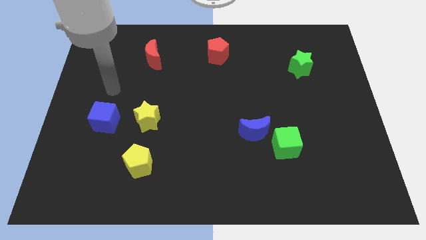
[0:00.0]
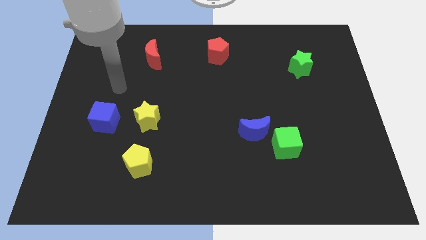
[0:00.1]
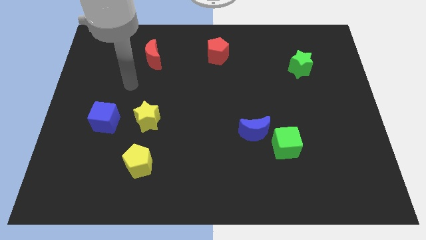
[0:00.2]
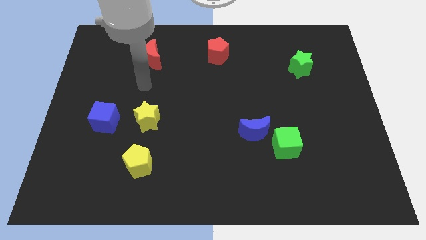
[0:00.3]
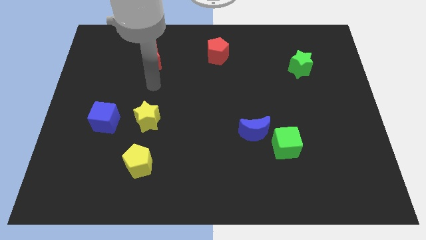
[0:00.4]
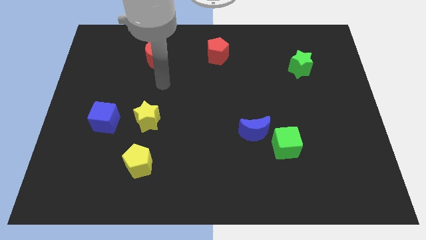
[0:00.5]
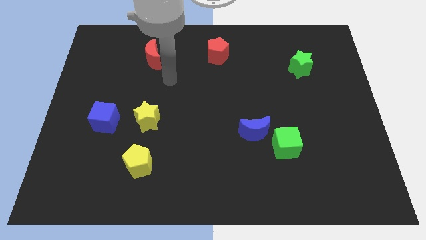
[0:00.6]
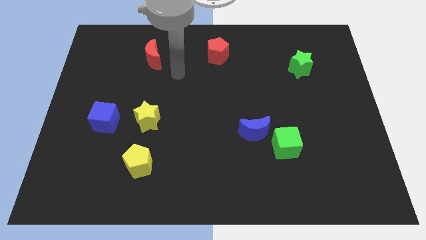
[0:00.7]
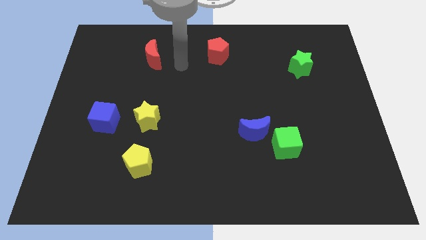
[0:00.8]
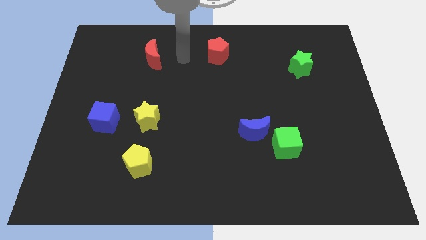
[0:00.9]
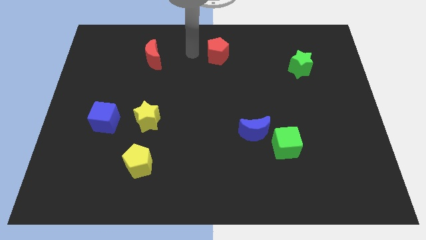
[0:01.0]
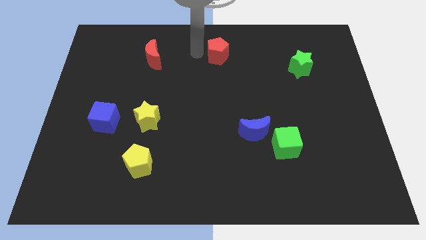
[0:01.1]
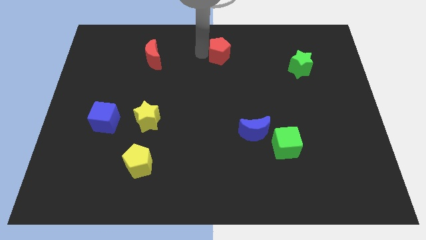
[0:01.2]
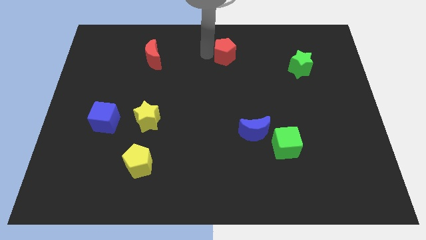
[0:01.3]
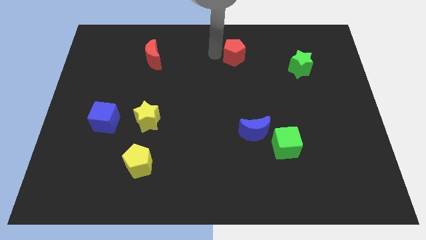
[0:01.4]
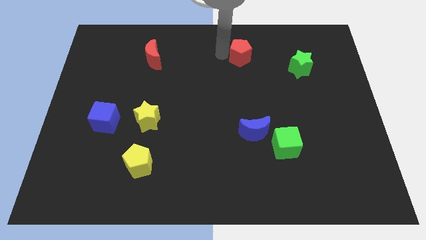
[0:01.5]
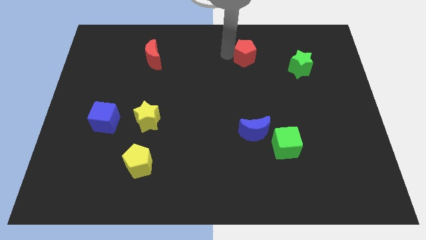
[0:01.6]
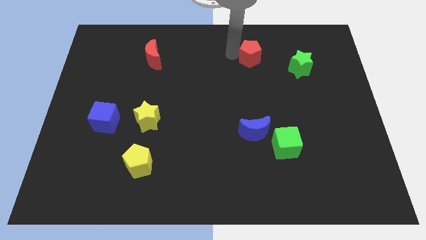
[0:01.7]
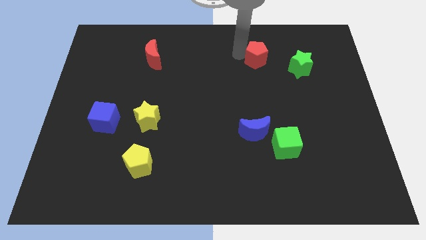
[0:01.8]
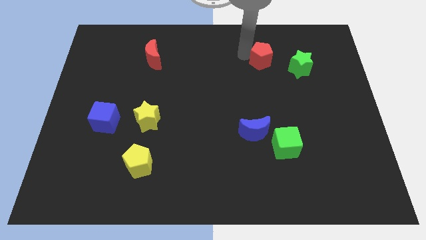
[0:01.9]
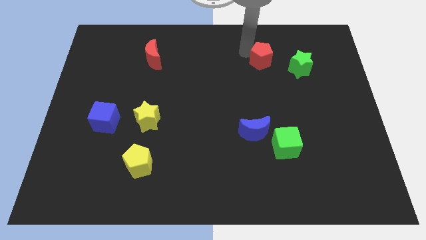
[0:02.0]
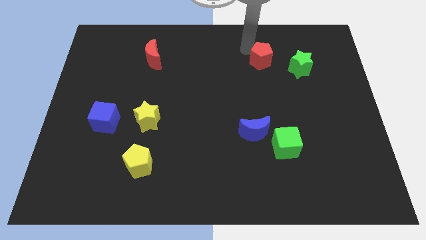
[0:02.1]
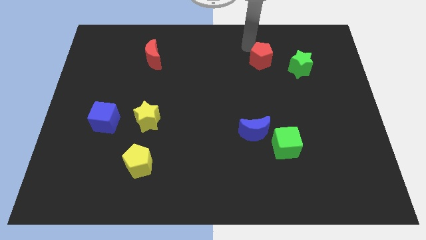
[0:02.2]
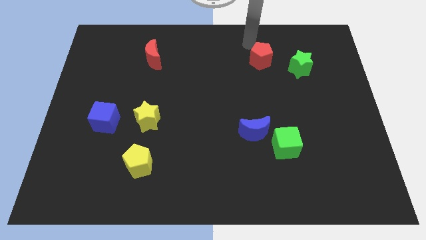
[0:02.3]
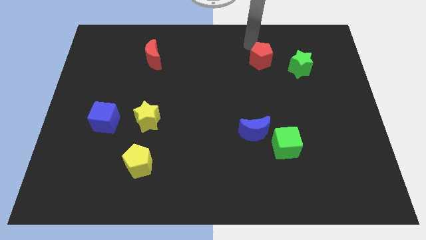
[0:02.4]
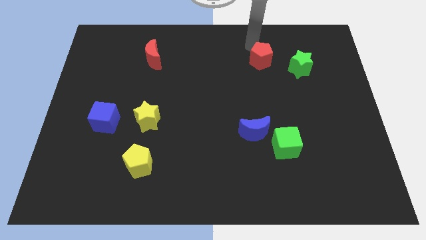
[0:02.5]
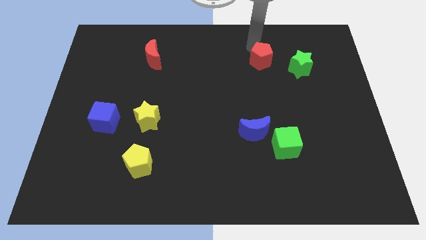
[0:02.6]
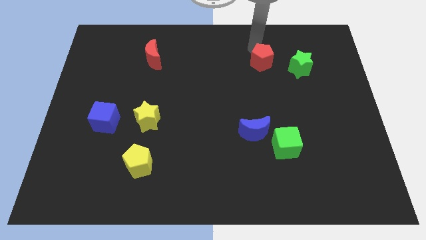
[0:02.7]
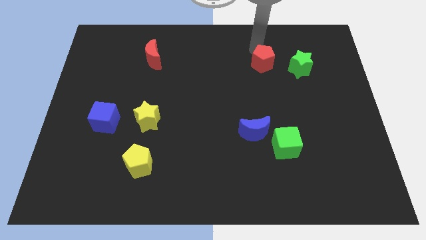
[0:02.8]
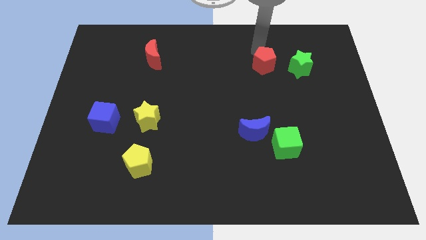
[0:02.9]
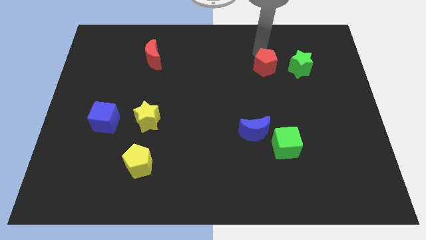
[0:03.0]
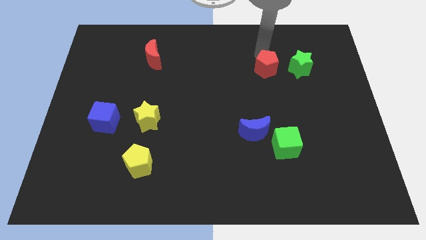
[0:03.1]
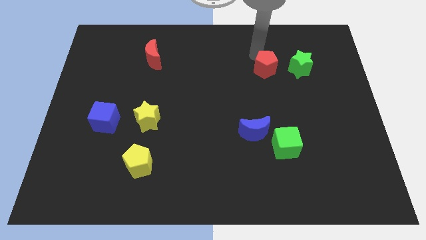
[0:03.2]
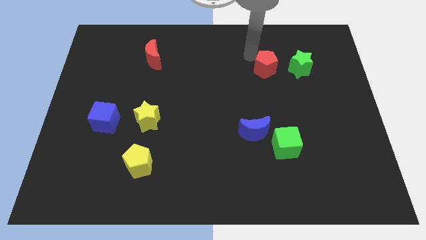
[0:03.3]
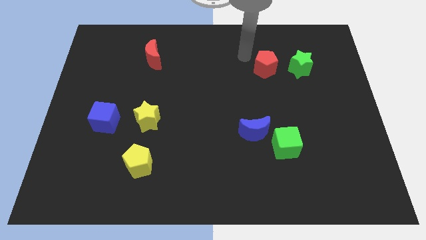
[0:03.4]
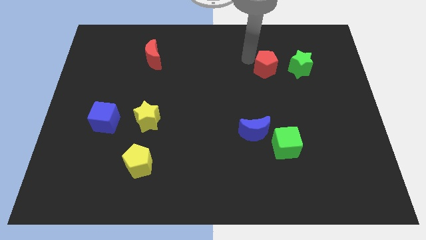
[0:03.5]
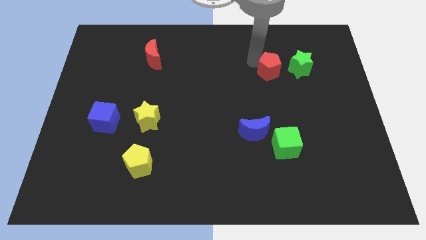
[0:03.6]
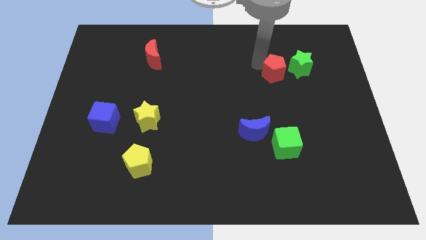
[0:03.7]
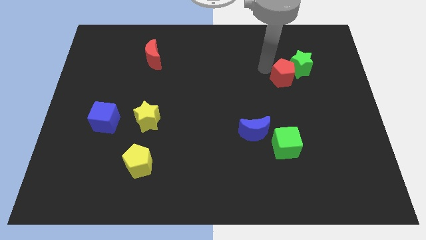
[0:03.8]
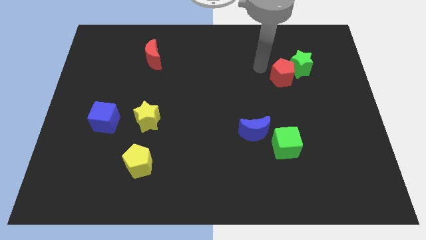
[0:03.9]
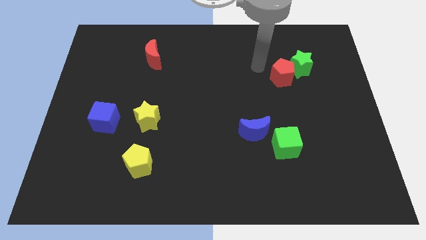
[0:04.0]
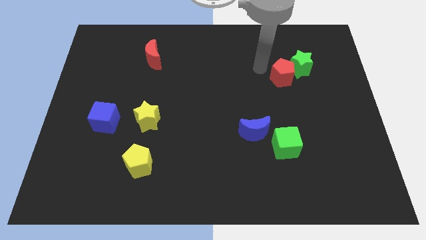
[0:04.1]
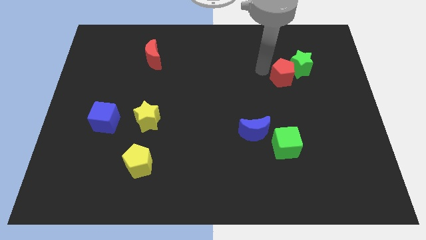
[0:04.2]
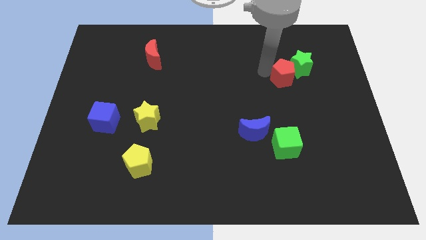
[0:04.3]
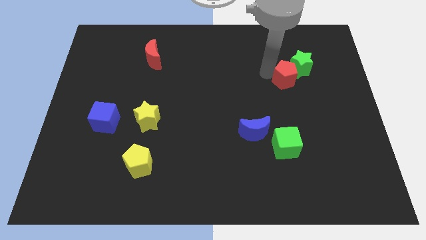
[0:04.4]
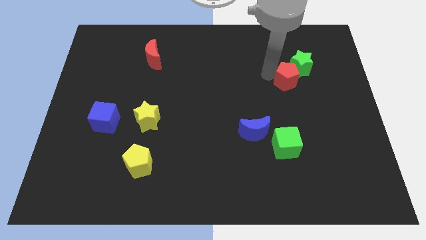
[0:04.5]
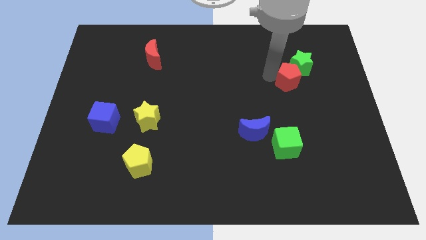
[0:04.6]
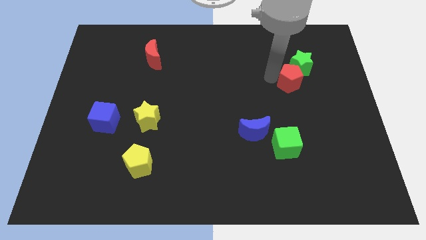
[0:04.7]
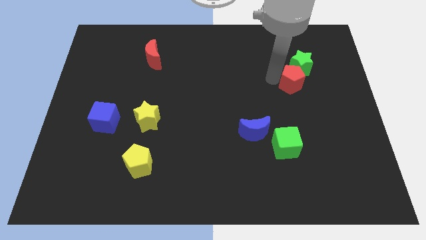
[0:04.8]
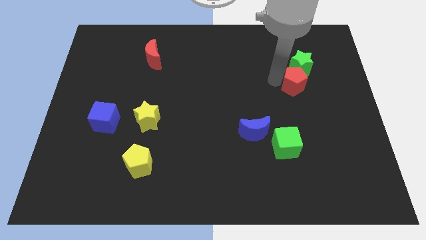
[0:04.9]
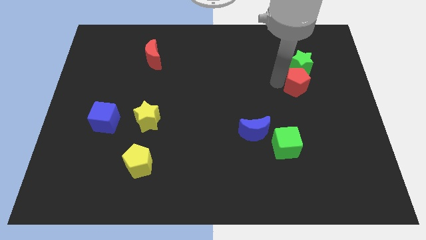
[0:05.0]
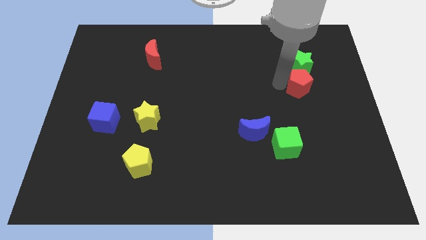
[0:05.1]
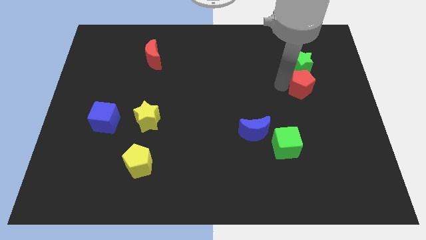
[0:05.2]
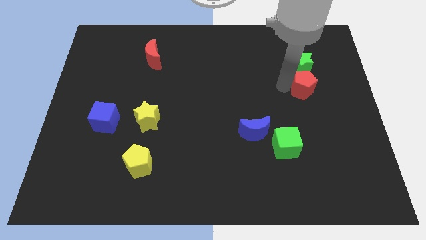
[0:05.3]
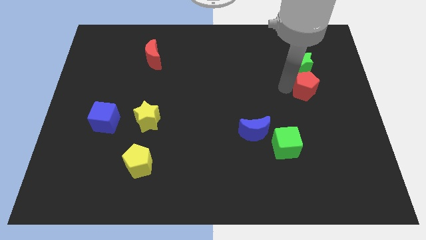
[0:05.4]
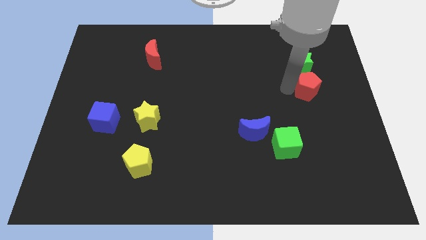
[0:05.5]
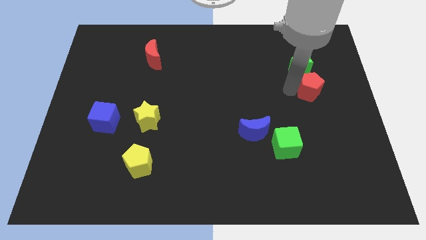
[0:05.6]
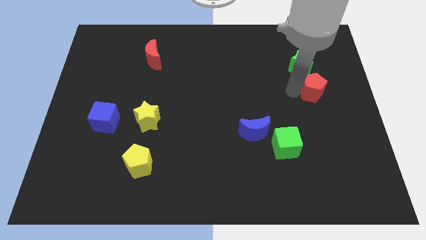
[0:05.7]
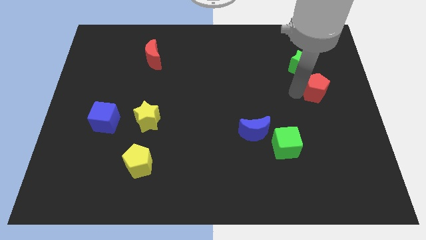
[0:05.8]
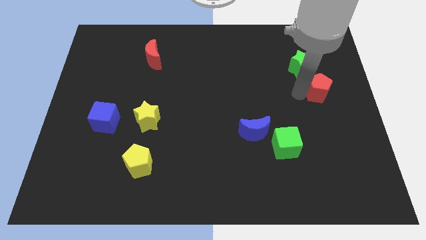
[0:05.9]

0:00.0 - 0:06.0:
put the red pentagon to the right side

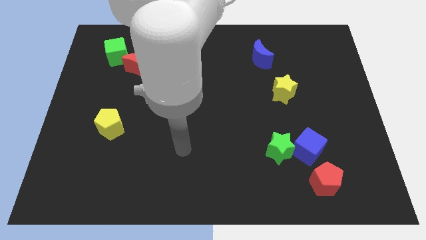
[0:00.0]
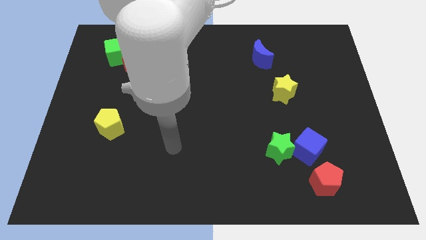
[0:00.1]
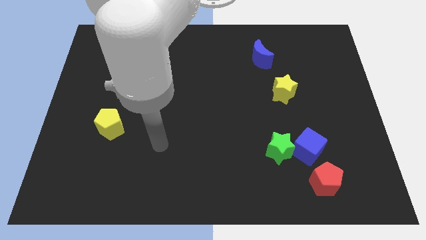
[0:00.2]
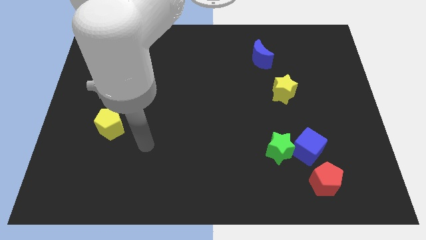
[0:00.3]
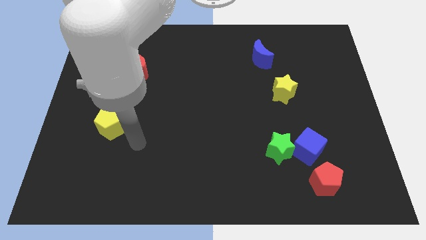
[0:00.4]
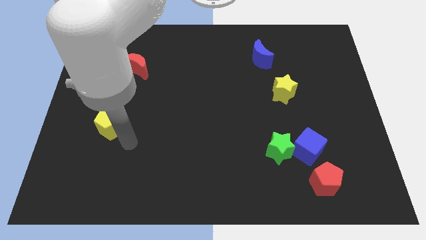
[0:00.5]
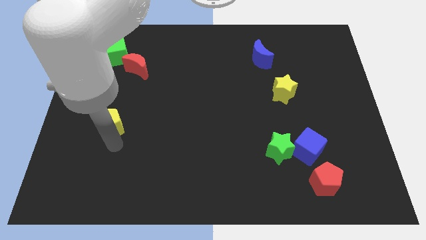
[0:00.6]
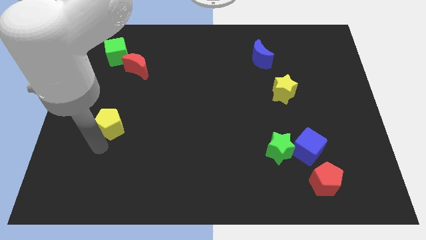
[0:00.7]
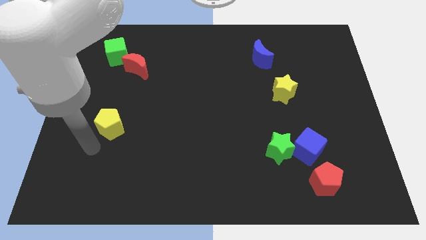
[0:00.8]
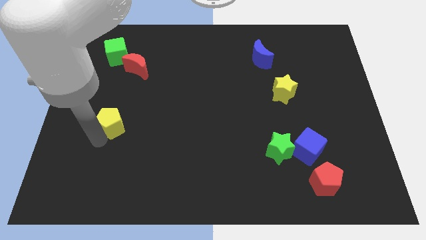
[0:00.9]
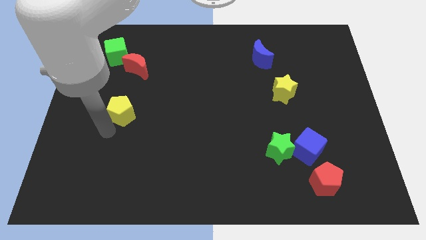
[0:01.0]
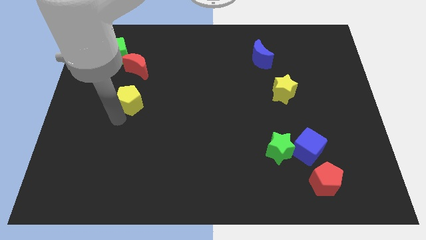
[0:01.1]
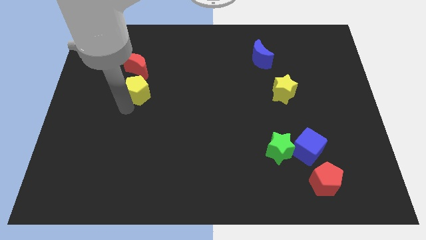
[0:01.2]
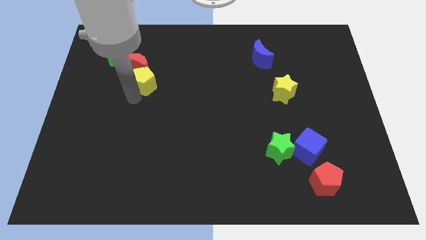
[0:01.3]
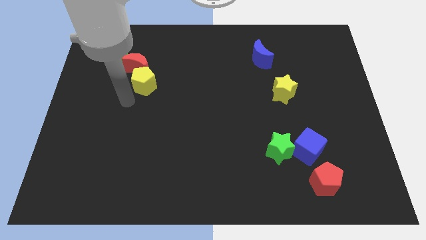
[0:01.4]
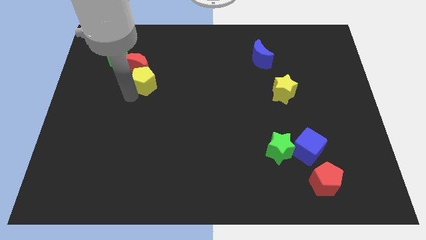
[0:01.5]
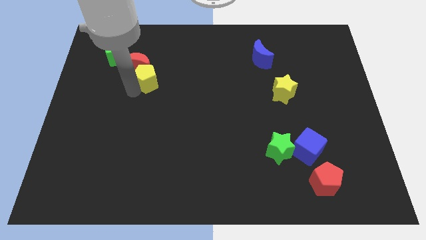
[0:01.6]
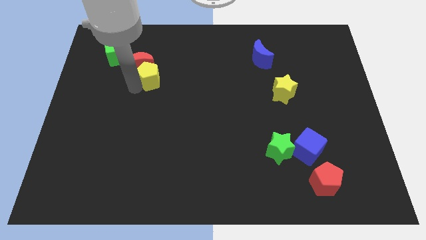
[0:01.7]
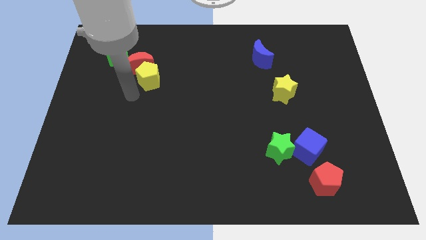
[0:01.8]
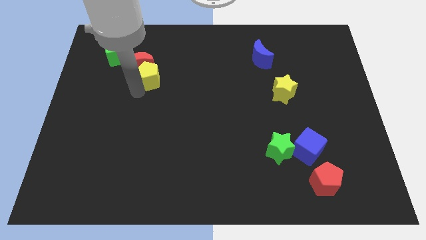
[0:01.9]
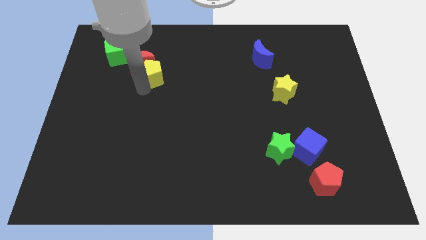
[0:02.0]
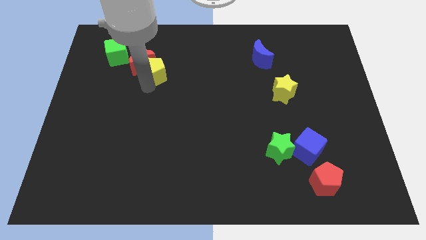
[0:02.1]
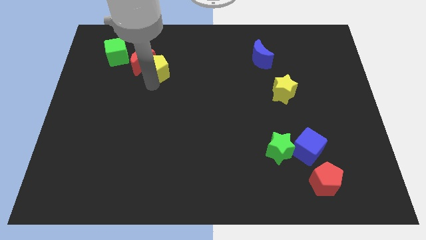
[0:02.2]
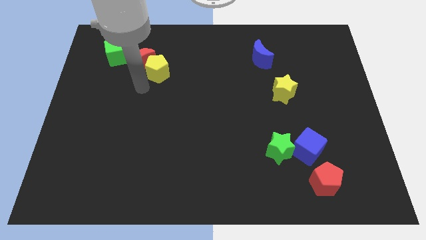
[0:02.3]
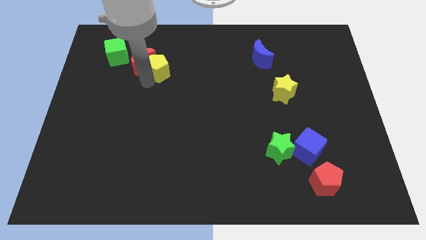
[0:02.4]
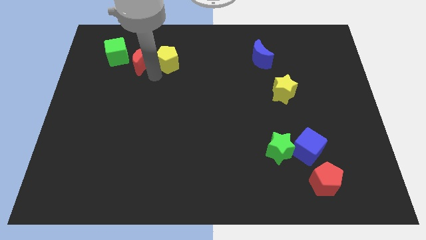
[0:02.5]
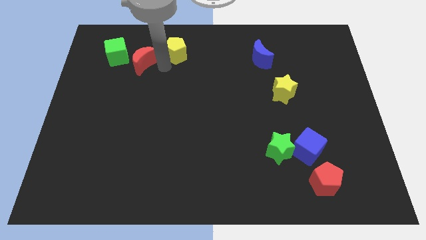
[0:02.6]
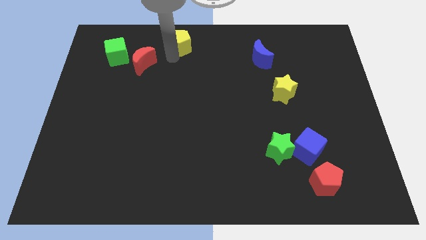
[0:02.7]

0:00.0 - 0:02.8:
push the yellow pentagon to the towards your base
